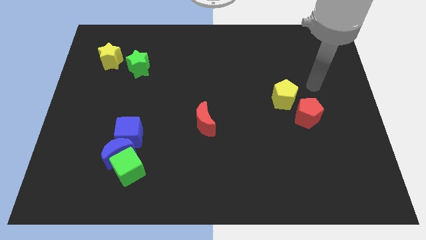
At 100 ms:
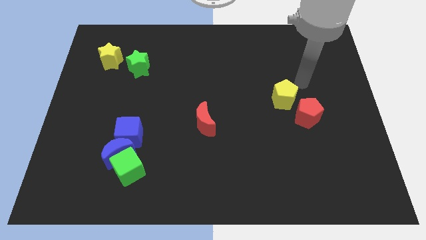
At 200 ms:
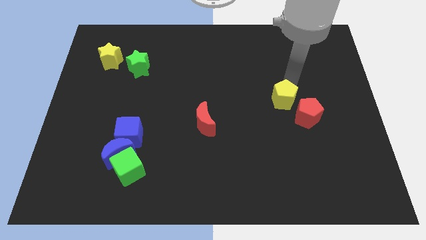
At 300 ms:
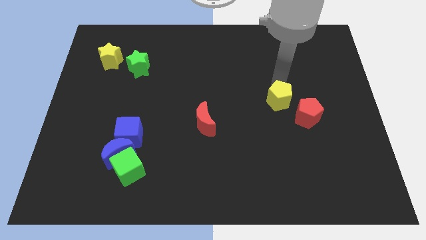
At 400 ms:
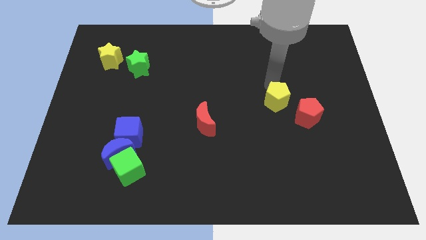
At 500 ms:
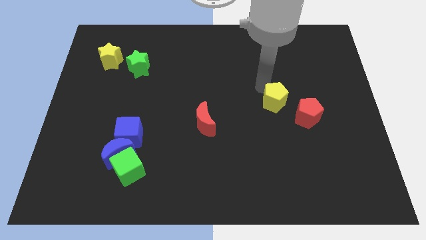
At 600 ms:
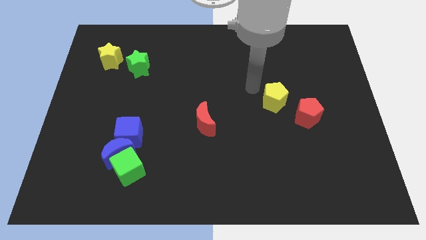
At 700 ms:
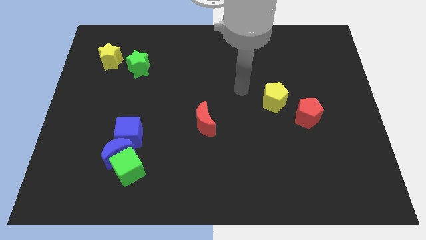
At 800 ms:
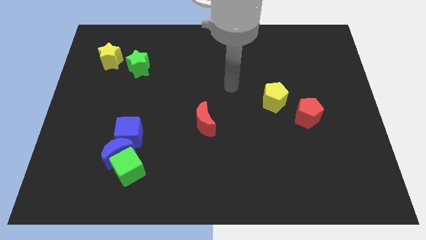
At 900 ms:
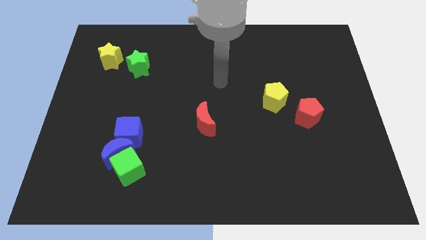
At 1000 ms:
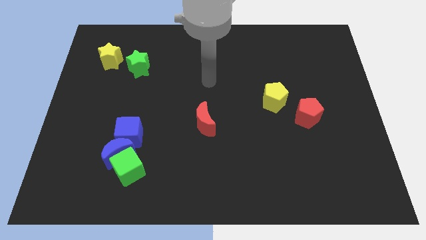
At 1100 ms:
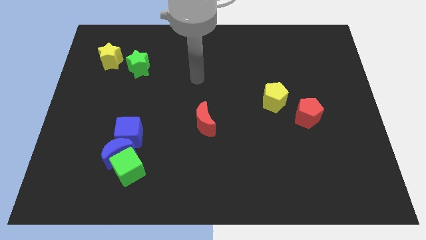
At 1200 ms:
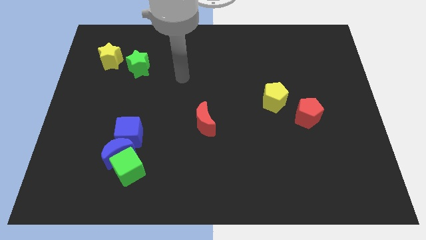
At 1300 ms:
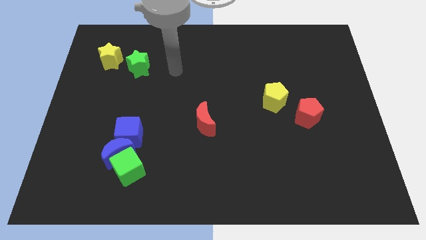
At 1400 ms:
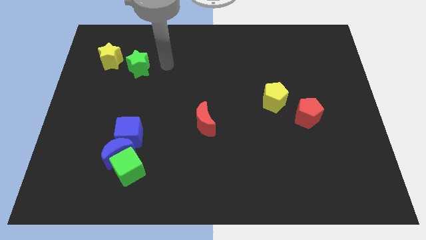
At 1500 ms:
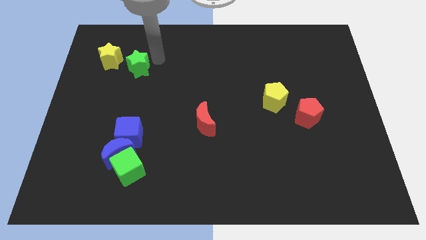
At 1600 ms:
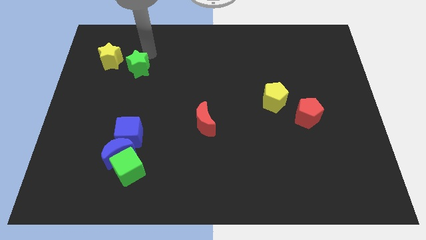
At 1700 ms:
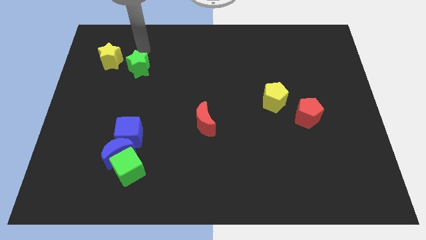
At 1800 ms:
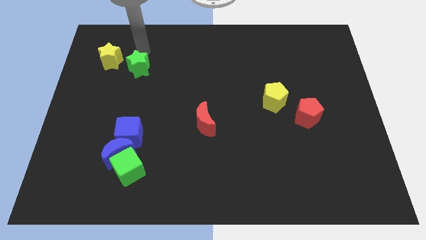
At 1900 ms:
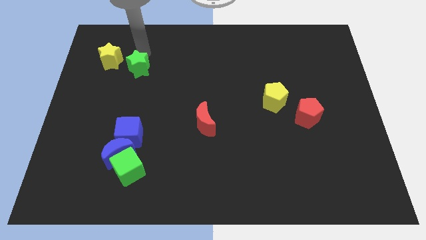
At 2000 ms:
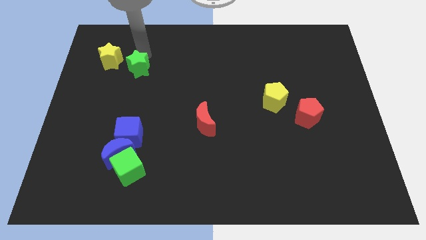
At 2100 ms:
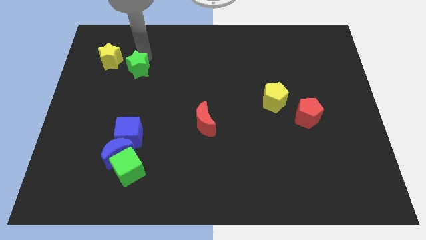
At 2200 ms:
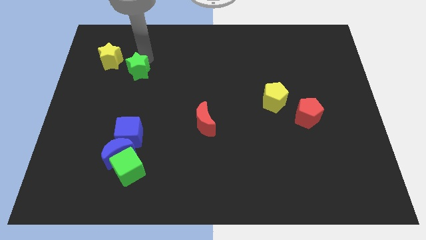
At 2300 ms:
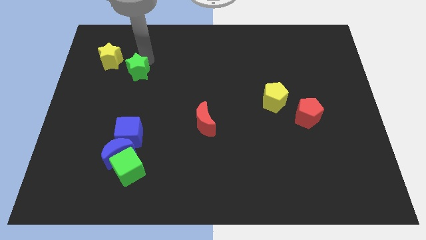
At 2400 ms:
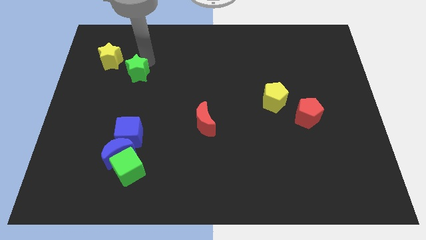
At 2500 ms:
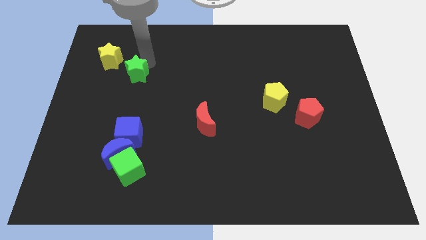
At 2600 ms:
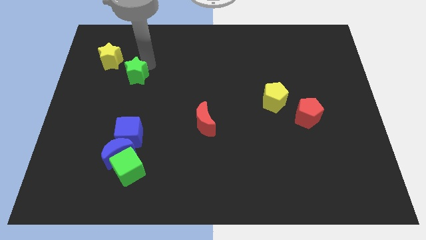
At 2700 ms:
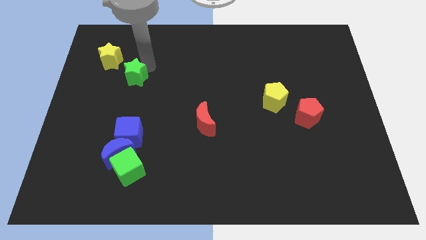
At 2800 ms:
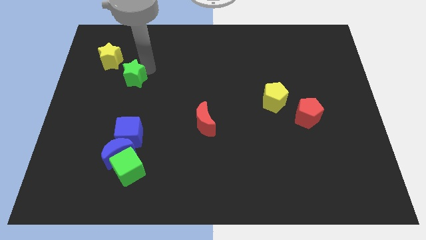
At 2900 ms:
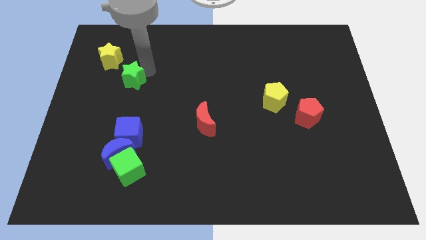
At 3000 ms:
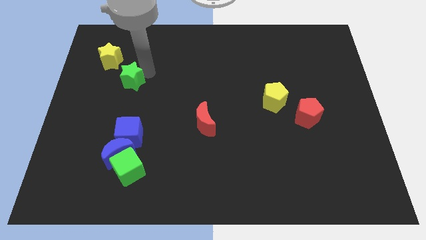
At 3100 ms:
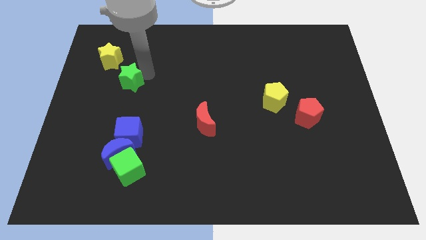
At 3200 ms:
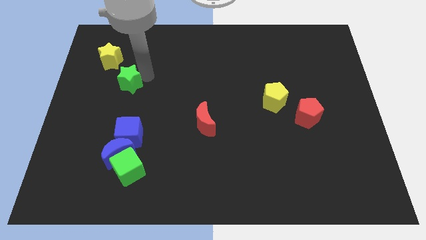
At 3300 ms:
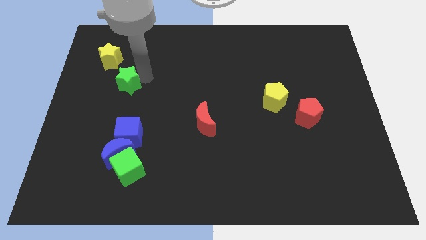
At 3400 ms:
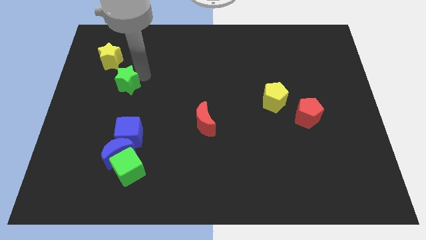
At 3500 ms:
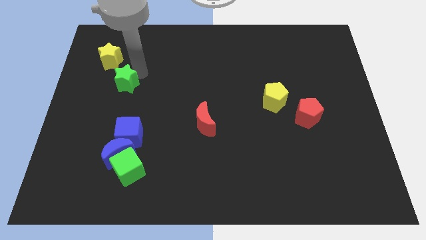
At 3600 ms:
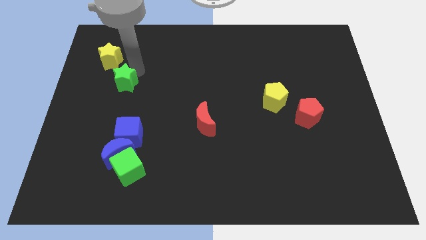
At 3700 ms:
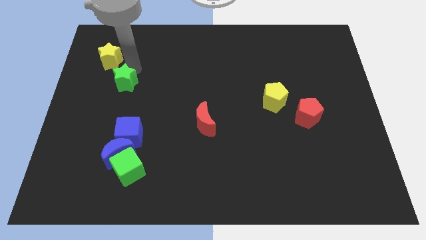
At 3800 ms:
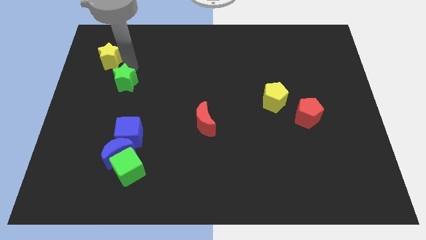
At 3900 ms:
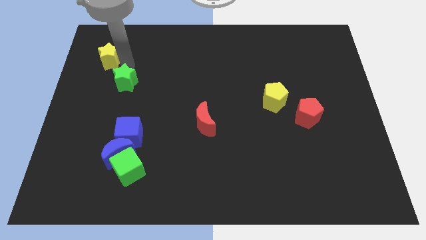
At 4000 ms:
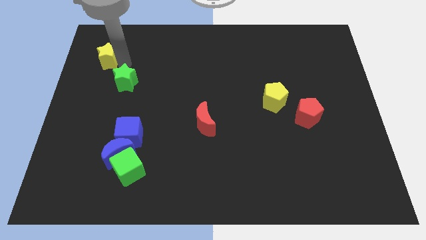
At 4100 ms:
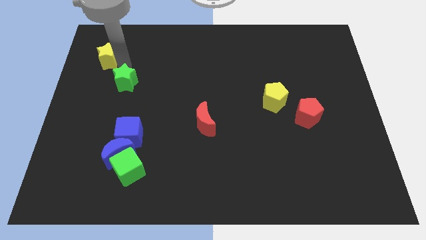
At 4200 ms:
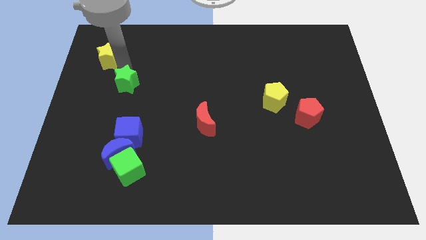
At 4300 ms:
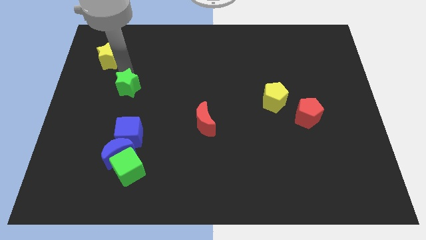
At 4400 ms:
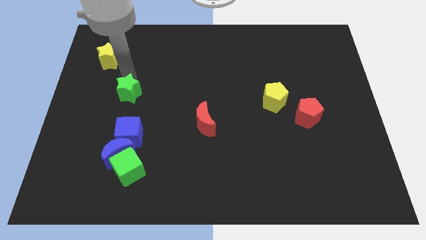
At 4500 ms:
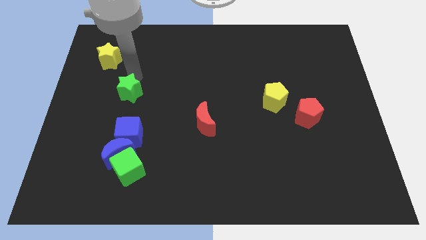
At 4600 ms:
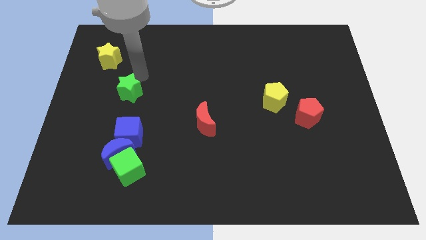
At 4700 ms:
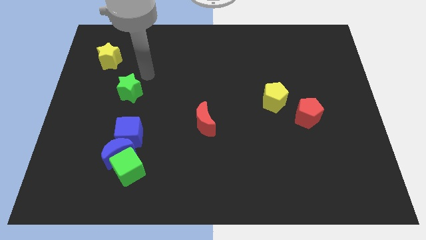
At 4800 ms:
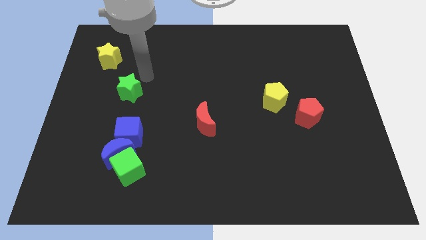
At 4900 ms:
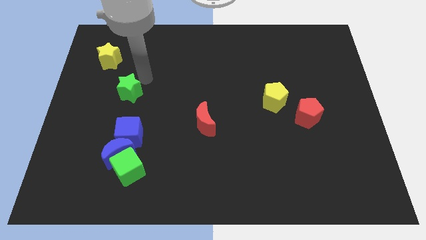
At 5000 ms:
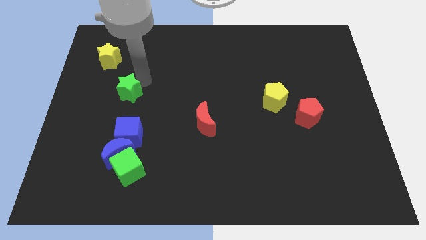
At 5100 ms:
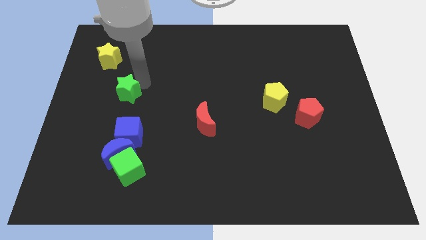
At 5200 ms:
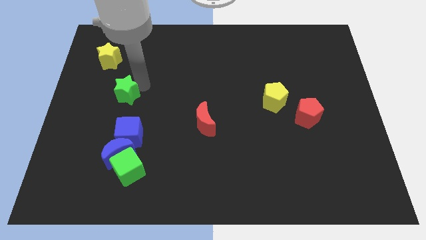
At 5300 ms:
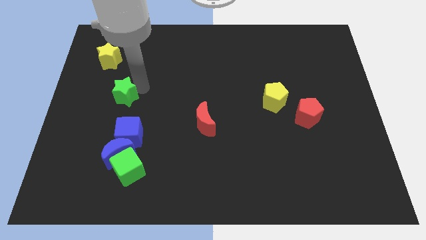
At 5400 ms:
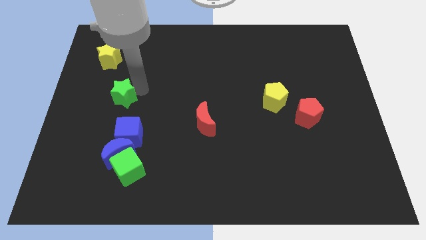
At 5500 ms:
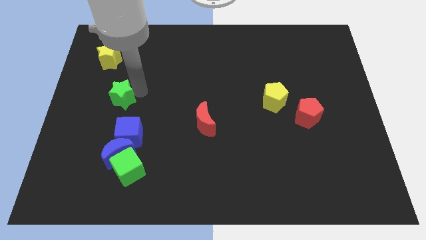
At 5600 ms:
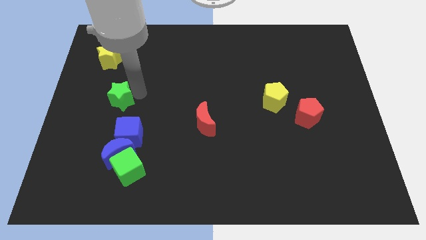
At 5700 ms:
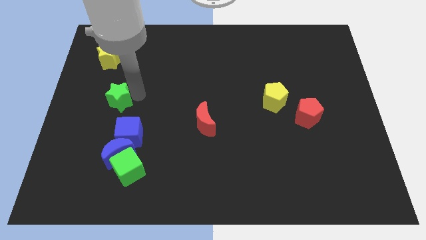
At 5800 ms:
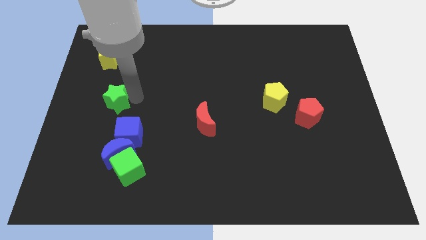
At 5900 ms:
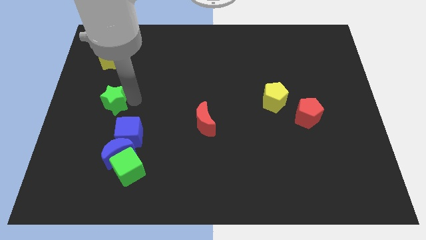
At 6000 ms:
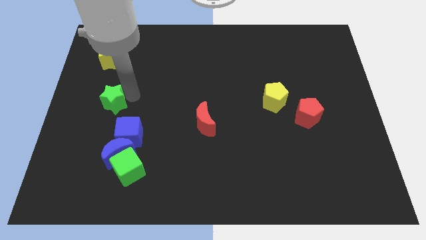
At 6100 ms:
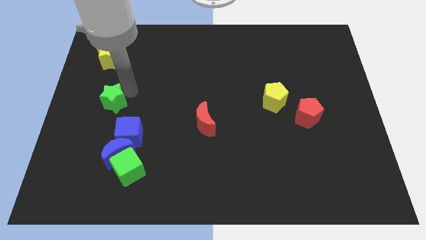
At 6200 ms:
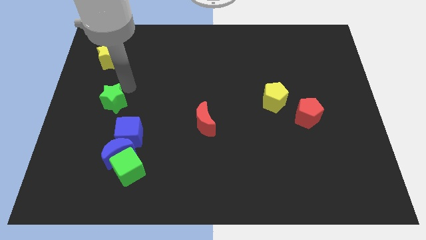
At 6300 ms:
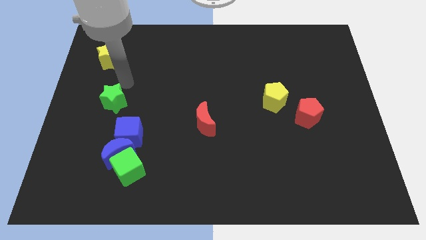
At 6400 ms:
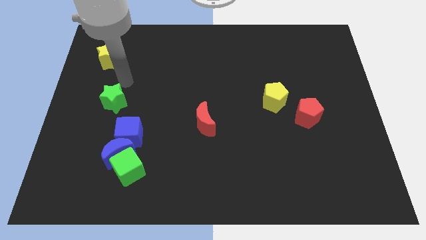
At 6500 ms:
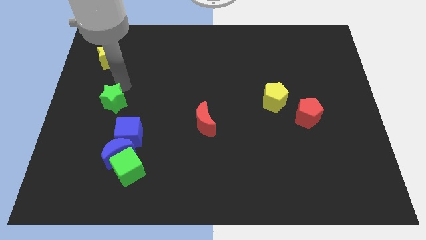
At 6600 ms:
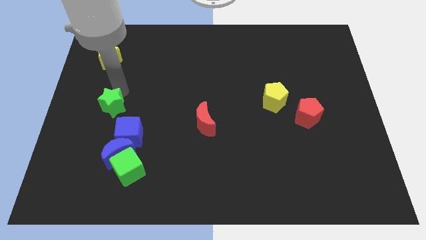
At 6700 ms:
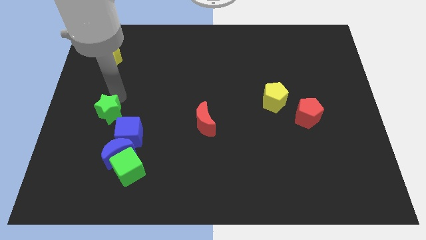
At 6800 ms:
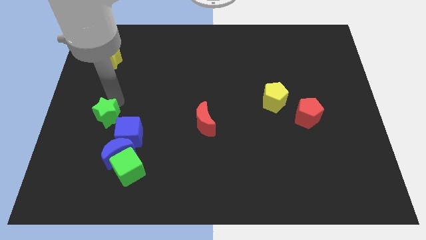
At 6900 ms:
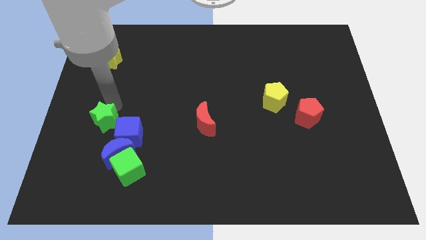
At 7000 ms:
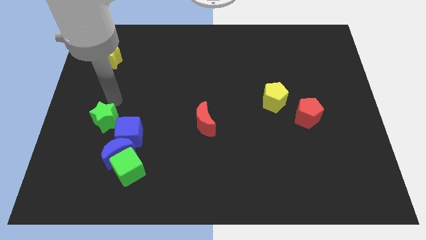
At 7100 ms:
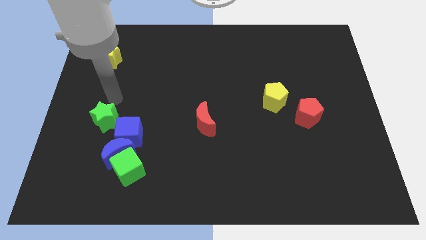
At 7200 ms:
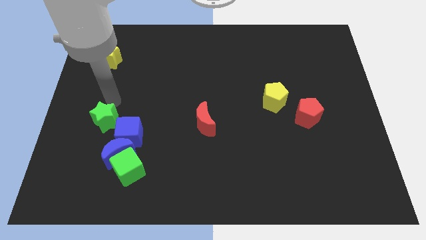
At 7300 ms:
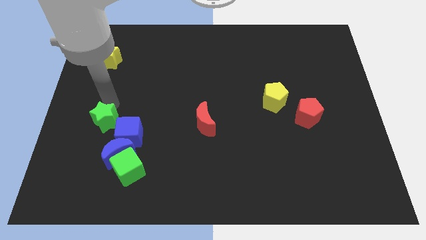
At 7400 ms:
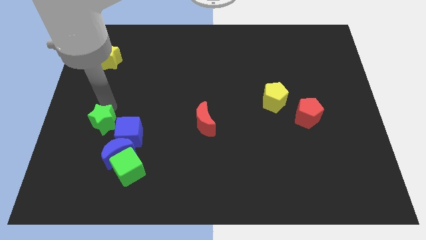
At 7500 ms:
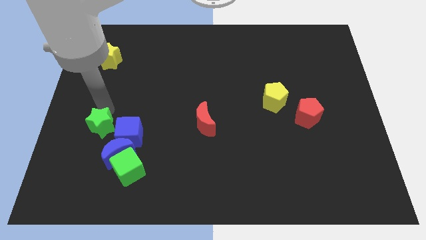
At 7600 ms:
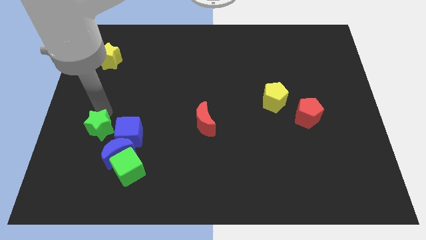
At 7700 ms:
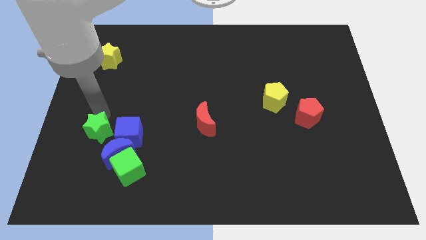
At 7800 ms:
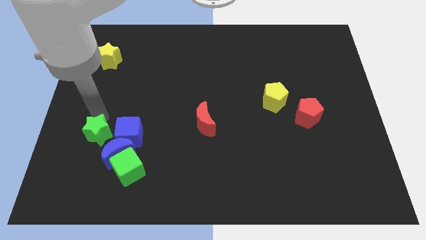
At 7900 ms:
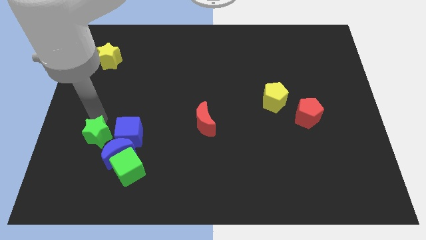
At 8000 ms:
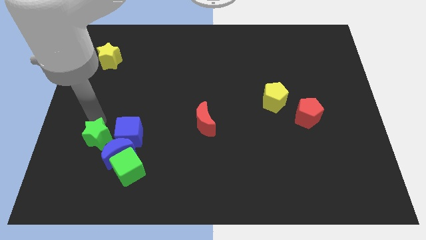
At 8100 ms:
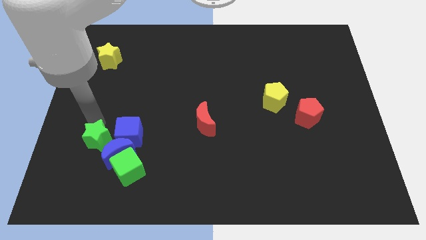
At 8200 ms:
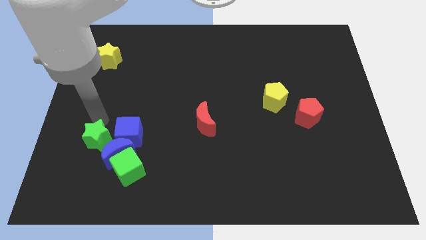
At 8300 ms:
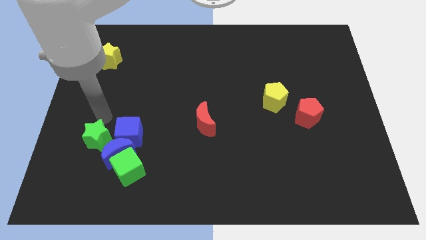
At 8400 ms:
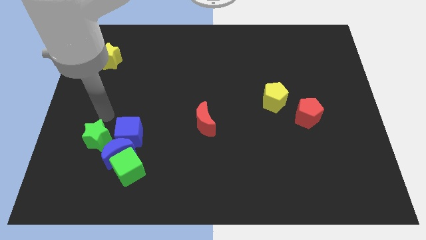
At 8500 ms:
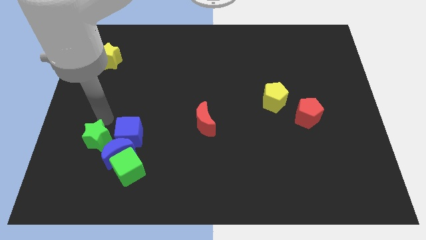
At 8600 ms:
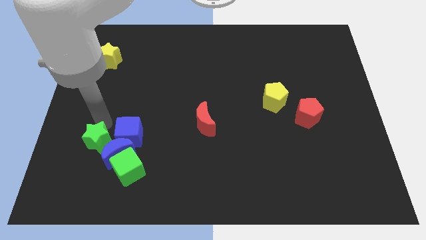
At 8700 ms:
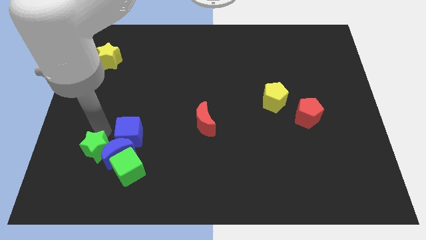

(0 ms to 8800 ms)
slide the green star diagonally down and to the left of the blue moon
